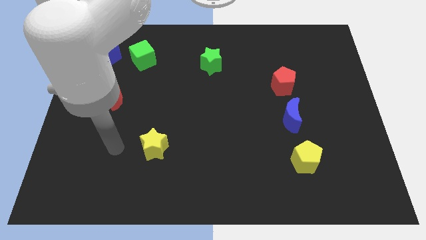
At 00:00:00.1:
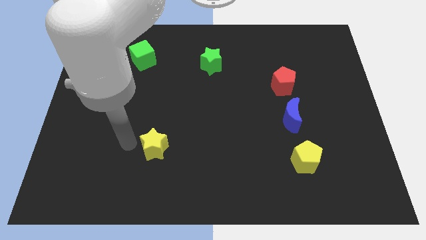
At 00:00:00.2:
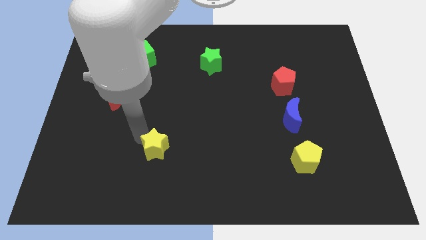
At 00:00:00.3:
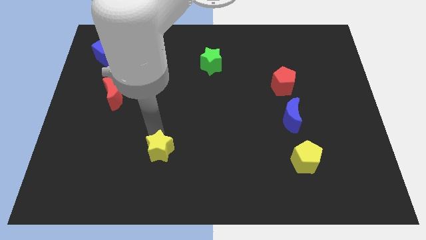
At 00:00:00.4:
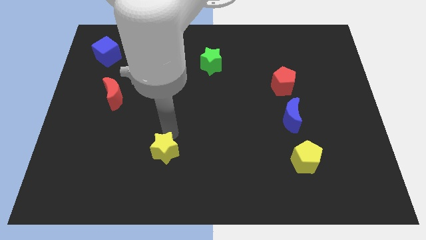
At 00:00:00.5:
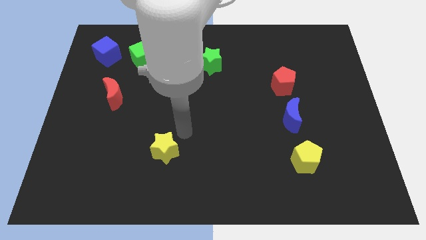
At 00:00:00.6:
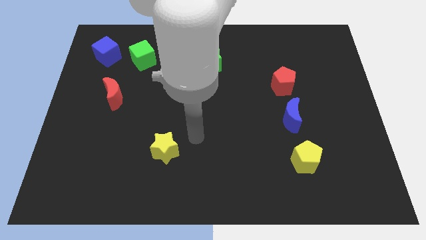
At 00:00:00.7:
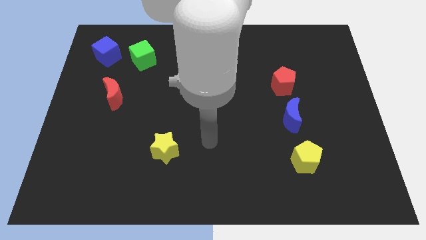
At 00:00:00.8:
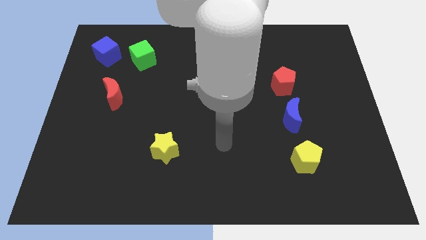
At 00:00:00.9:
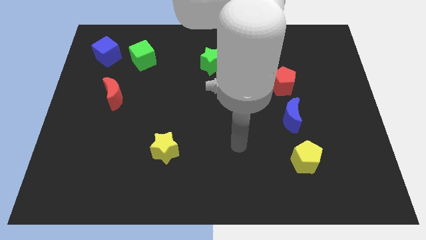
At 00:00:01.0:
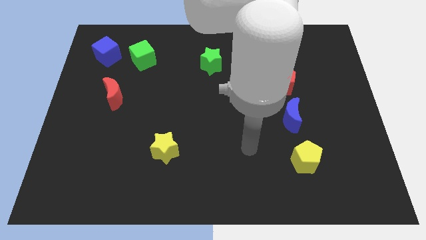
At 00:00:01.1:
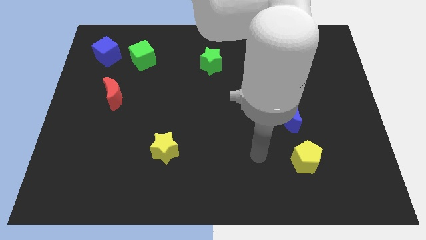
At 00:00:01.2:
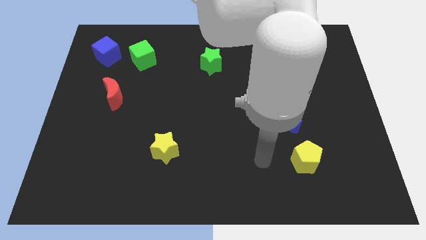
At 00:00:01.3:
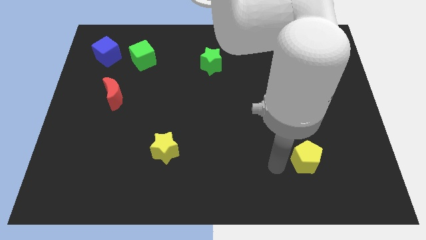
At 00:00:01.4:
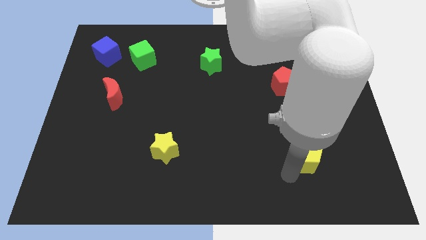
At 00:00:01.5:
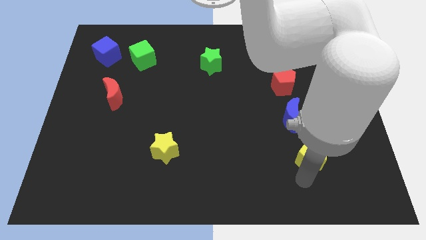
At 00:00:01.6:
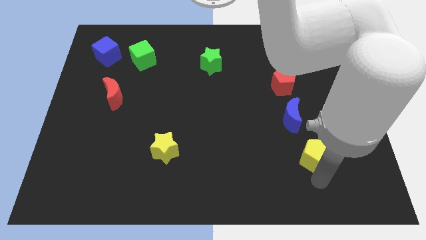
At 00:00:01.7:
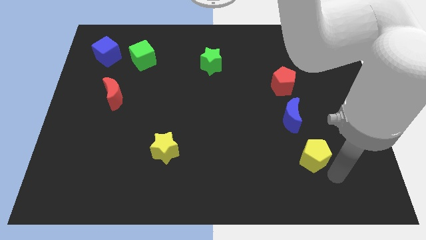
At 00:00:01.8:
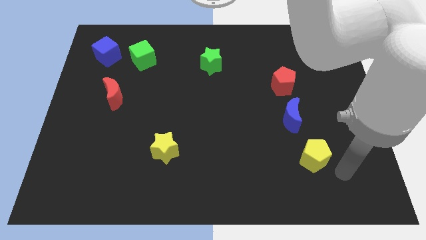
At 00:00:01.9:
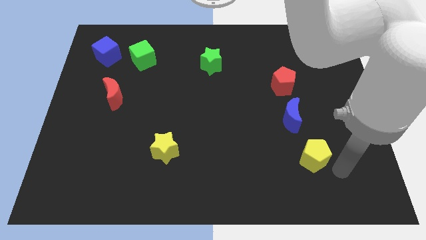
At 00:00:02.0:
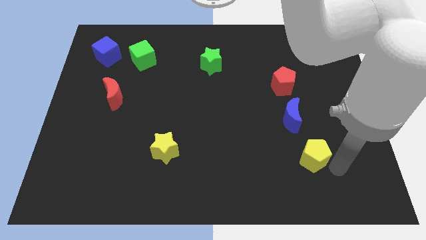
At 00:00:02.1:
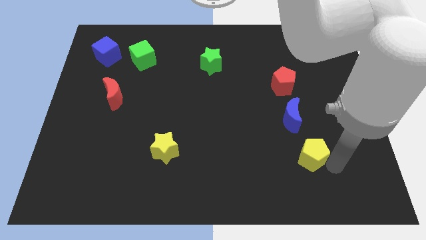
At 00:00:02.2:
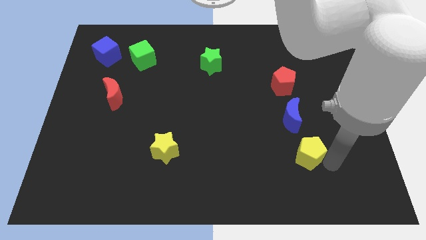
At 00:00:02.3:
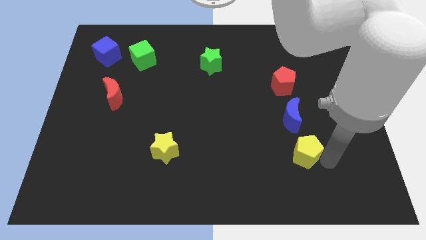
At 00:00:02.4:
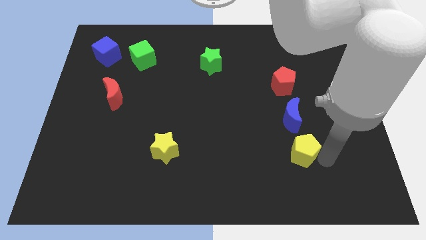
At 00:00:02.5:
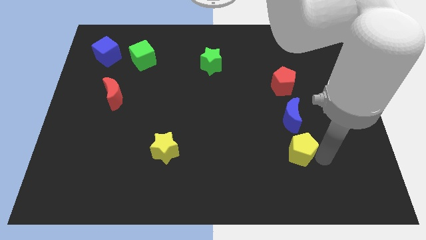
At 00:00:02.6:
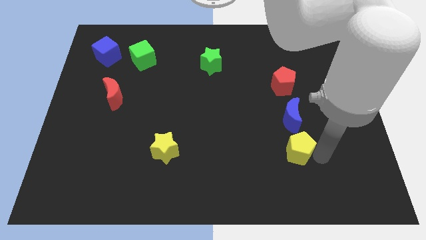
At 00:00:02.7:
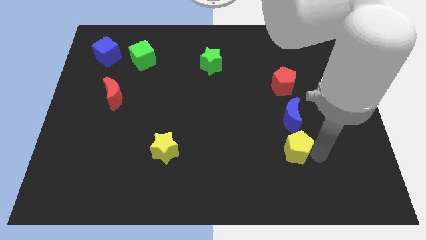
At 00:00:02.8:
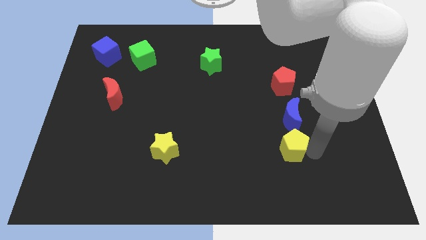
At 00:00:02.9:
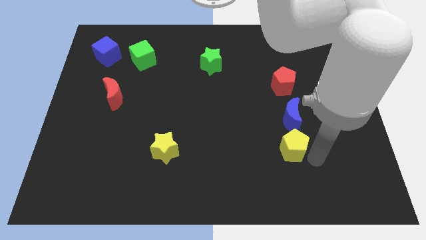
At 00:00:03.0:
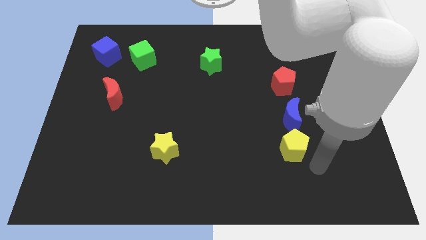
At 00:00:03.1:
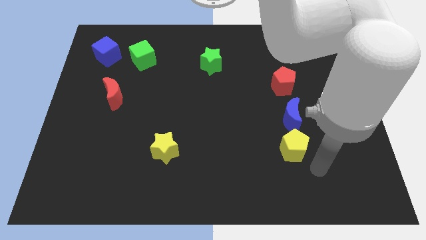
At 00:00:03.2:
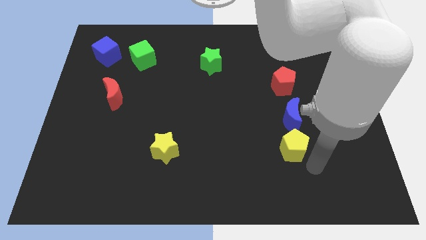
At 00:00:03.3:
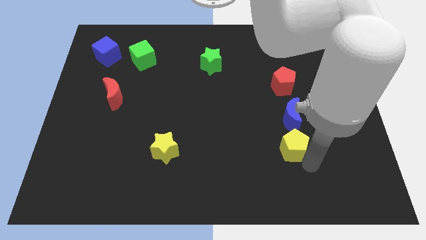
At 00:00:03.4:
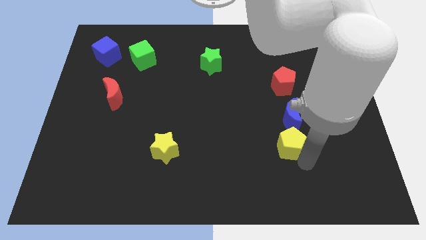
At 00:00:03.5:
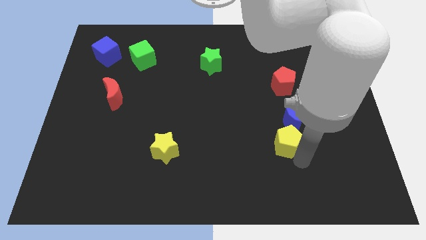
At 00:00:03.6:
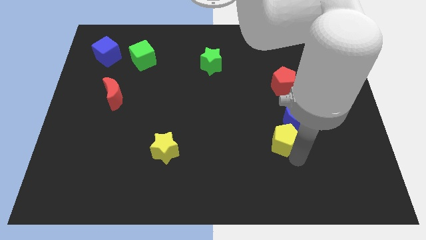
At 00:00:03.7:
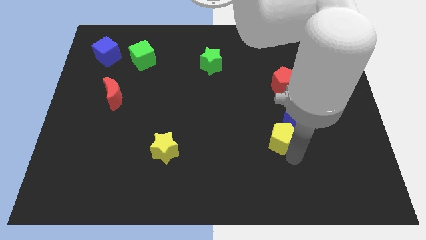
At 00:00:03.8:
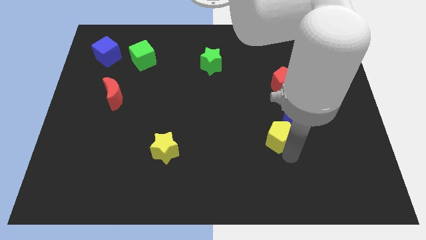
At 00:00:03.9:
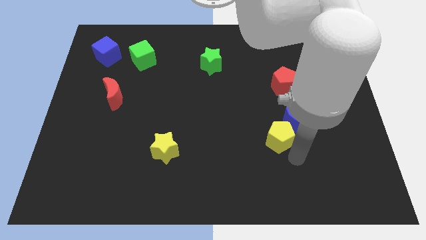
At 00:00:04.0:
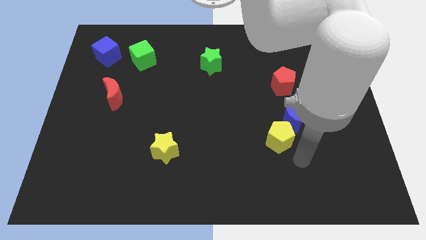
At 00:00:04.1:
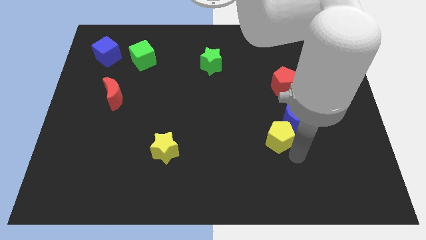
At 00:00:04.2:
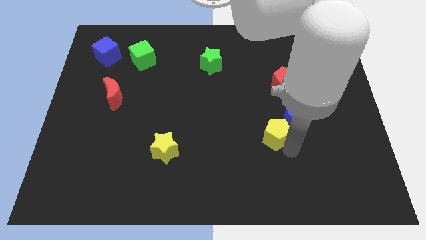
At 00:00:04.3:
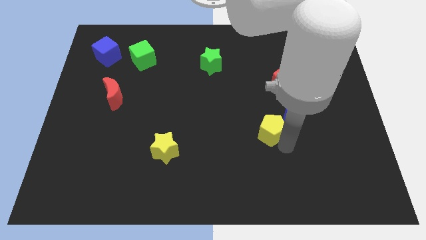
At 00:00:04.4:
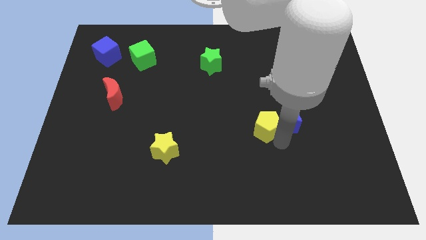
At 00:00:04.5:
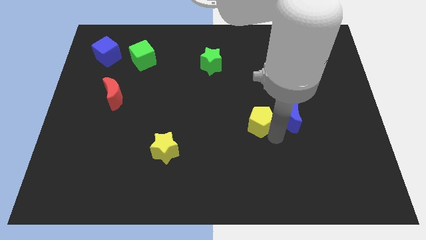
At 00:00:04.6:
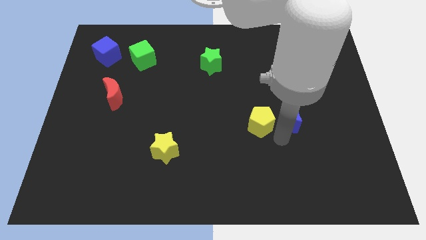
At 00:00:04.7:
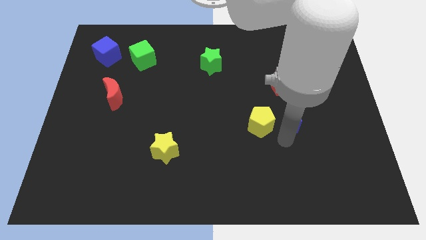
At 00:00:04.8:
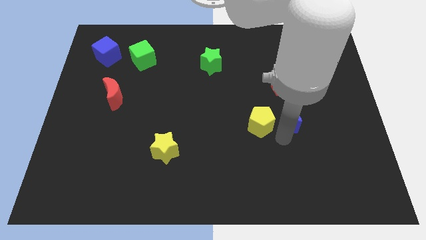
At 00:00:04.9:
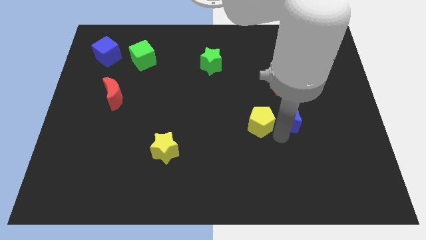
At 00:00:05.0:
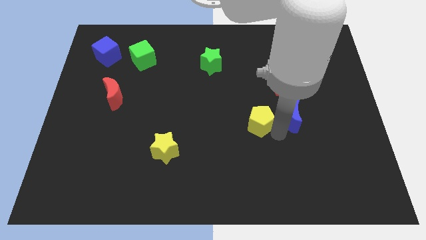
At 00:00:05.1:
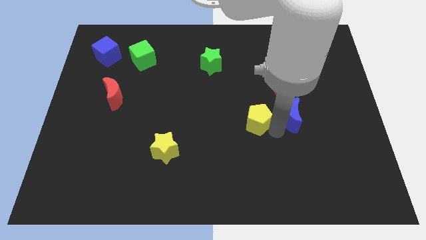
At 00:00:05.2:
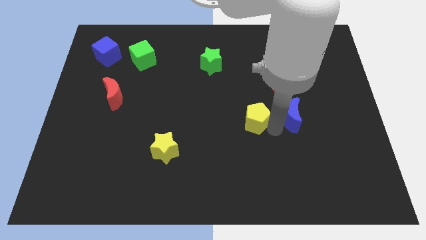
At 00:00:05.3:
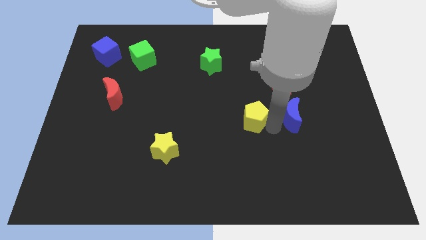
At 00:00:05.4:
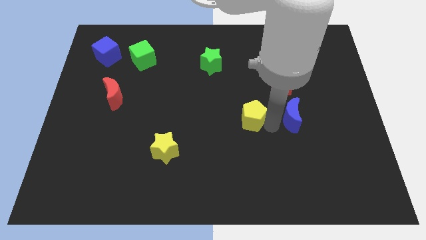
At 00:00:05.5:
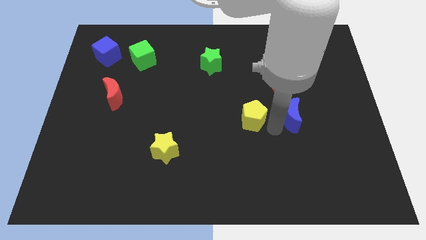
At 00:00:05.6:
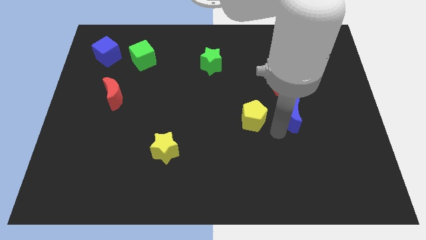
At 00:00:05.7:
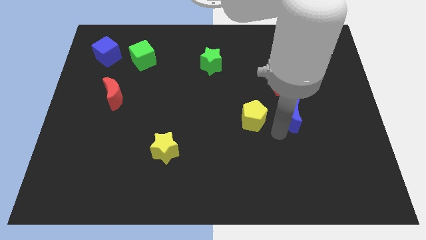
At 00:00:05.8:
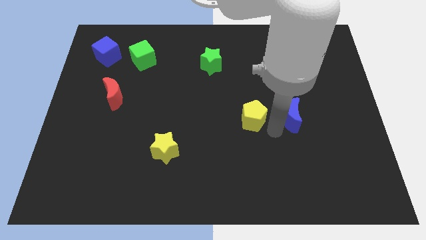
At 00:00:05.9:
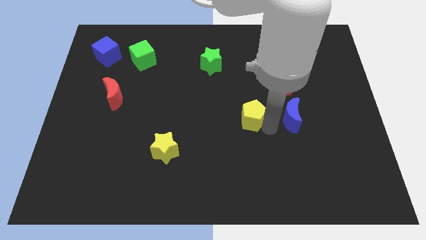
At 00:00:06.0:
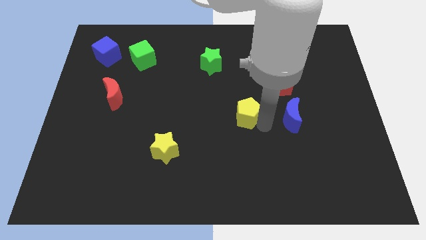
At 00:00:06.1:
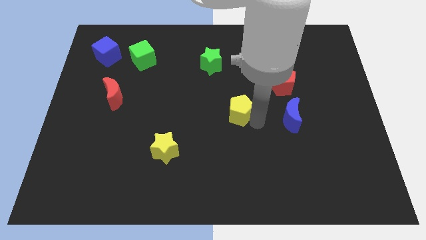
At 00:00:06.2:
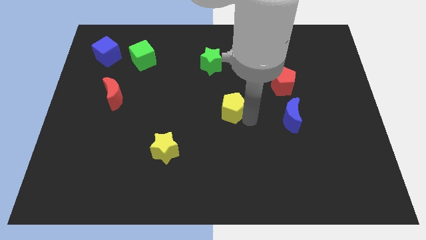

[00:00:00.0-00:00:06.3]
slide the yellow pentagon diagonally upwards and left

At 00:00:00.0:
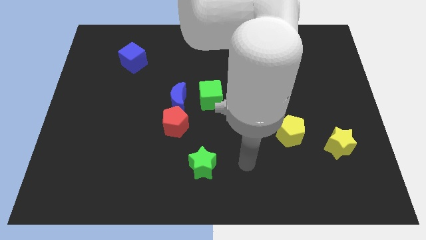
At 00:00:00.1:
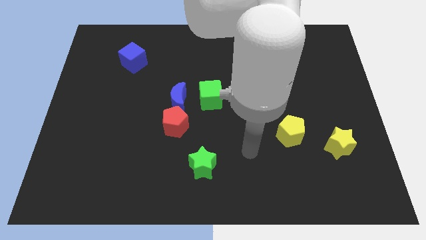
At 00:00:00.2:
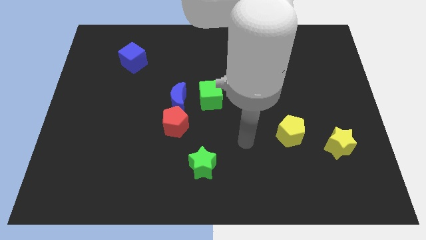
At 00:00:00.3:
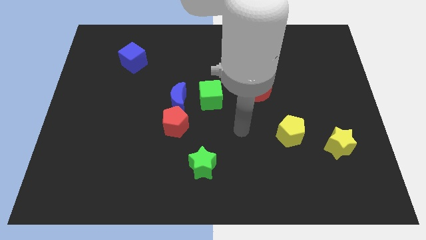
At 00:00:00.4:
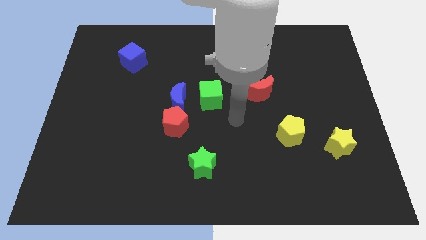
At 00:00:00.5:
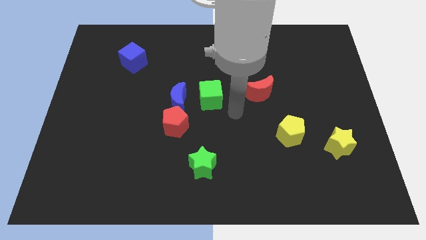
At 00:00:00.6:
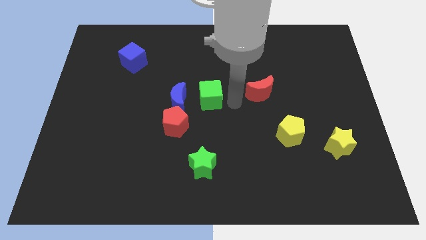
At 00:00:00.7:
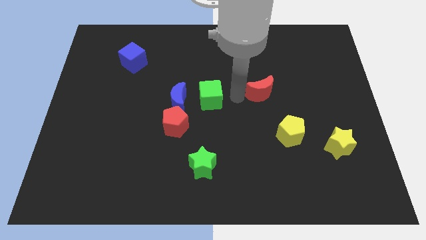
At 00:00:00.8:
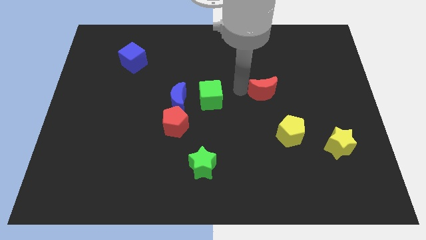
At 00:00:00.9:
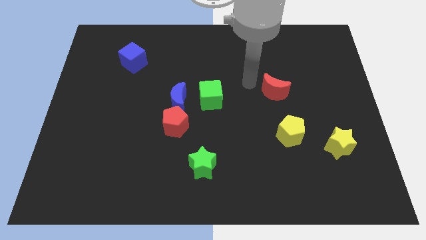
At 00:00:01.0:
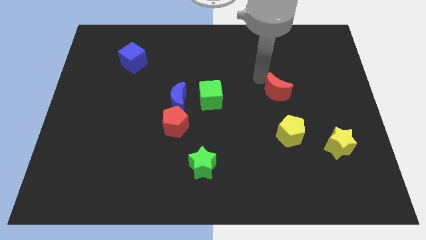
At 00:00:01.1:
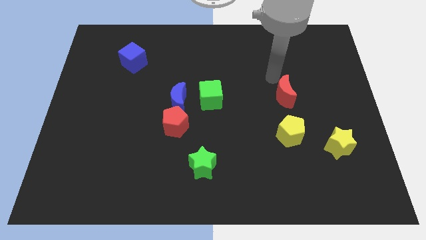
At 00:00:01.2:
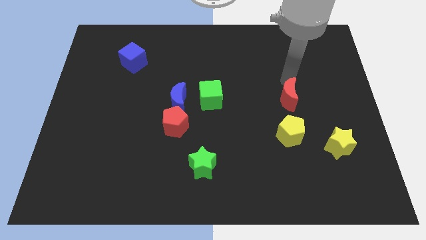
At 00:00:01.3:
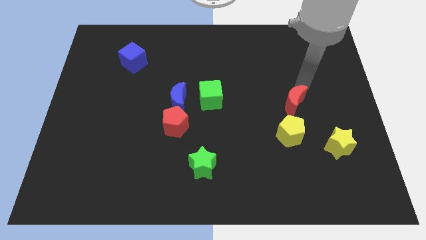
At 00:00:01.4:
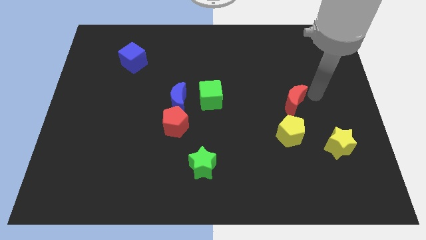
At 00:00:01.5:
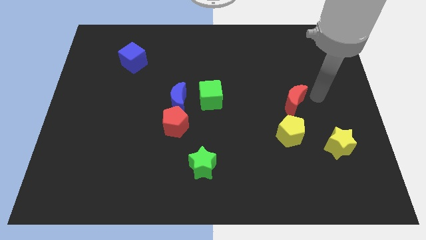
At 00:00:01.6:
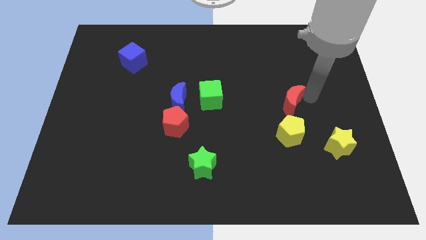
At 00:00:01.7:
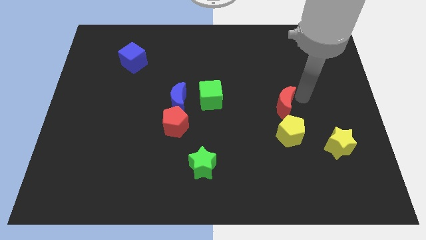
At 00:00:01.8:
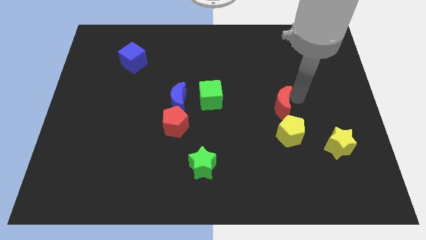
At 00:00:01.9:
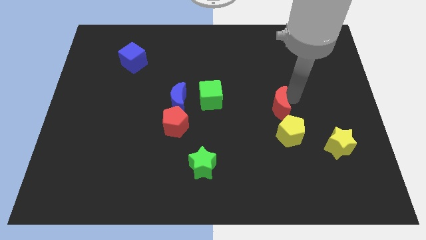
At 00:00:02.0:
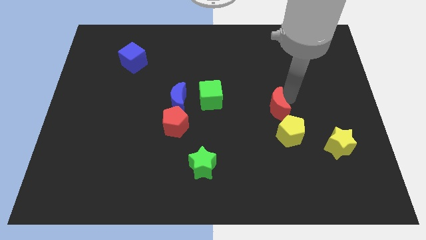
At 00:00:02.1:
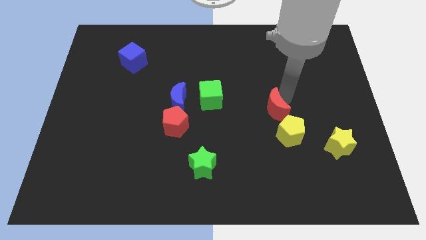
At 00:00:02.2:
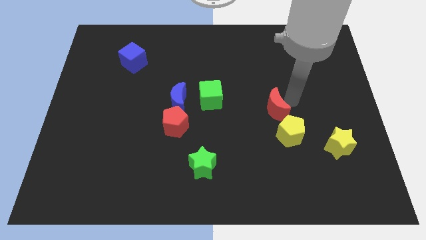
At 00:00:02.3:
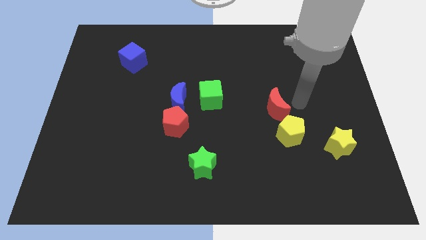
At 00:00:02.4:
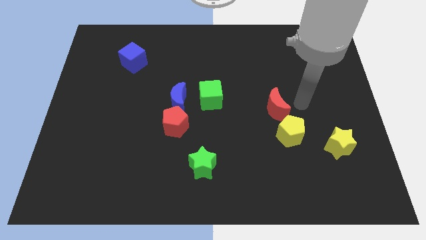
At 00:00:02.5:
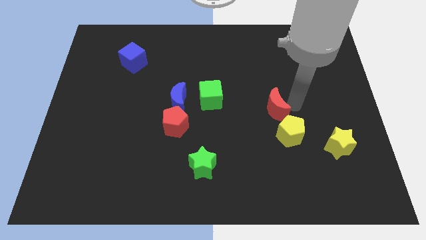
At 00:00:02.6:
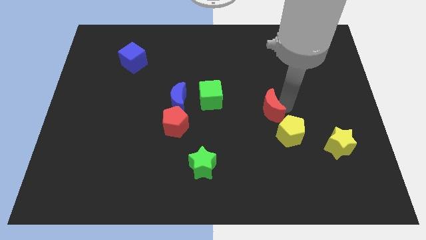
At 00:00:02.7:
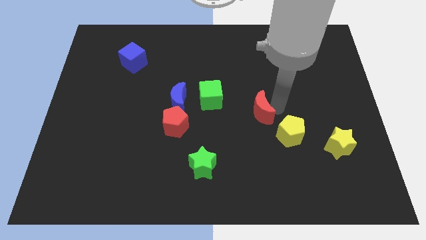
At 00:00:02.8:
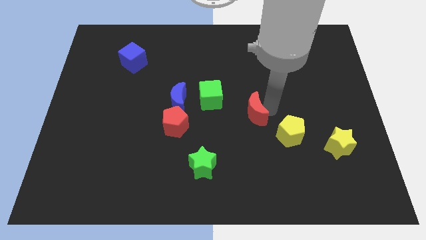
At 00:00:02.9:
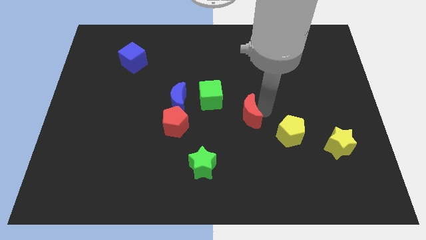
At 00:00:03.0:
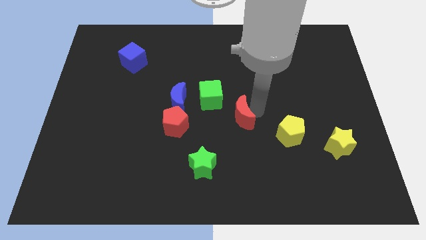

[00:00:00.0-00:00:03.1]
slightly push the red moon diagonally downwards and left
